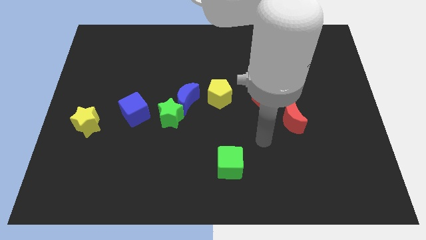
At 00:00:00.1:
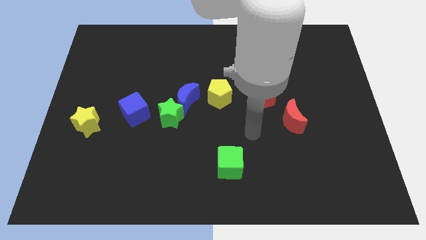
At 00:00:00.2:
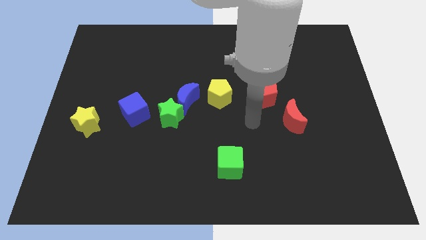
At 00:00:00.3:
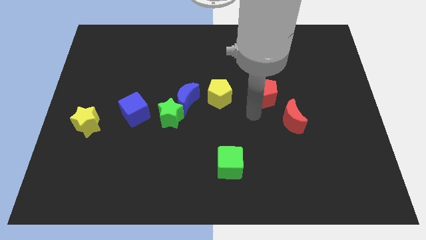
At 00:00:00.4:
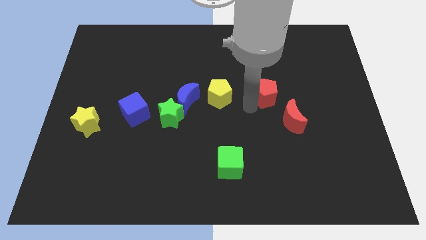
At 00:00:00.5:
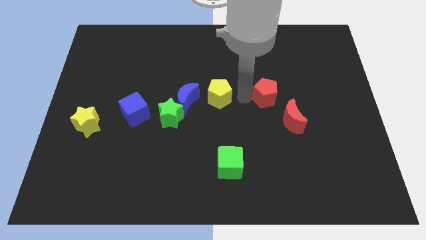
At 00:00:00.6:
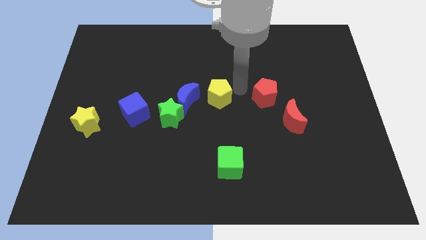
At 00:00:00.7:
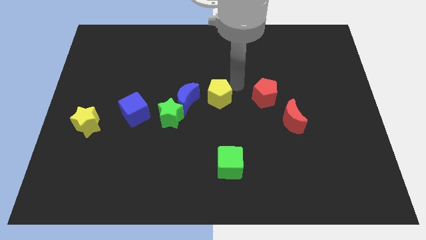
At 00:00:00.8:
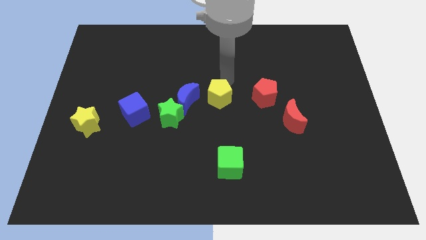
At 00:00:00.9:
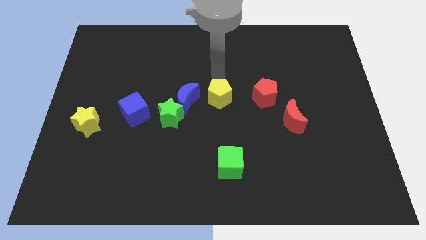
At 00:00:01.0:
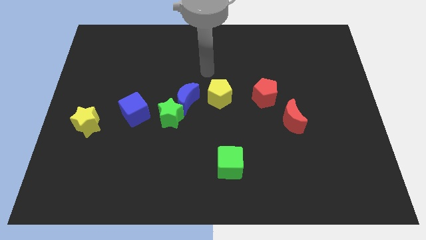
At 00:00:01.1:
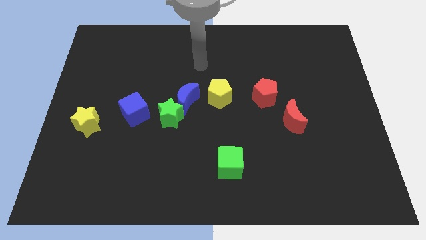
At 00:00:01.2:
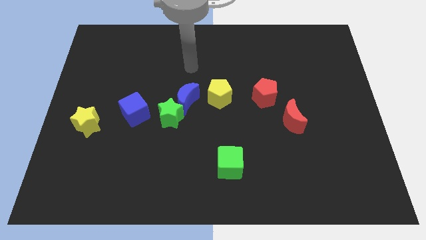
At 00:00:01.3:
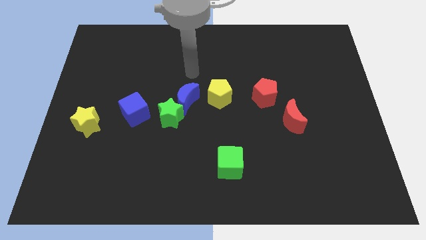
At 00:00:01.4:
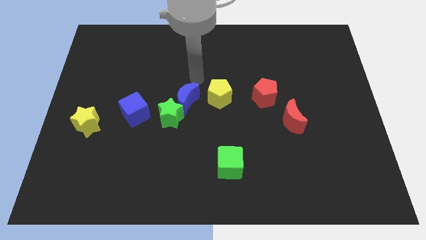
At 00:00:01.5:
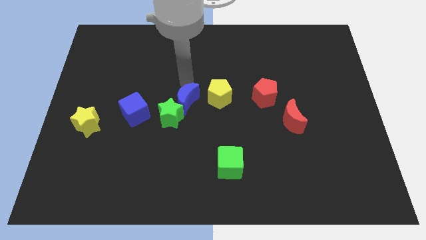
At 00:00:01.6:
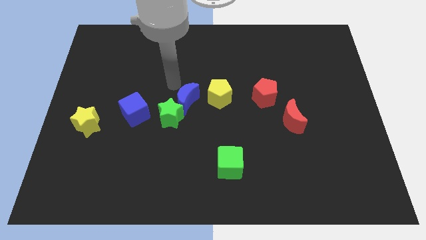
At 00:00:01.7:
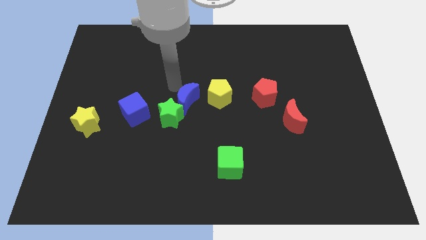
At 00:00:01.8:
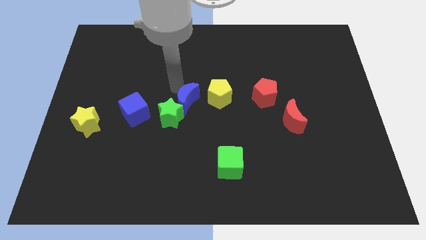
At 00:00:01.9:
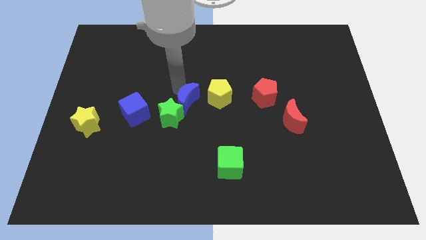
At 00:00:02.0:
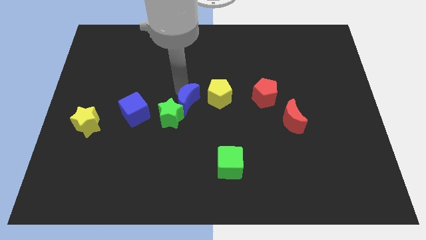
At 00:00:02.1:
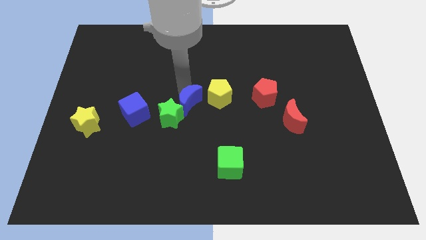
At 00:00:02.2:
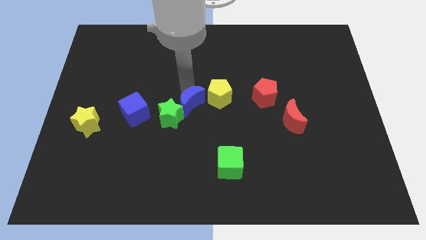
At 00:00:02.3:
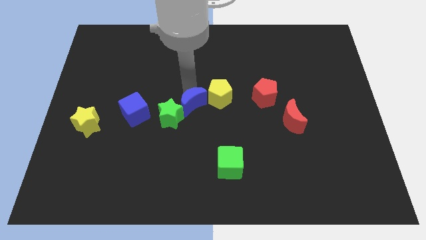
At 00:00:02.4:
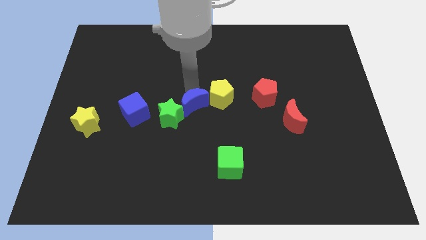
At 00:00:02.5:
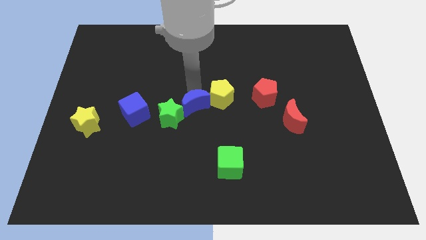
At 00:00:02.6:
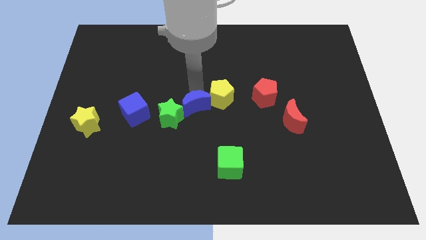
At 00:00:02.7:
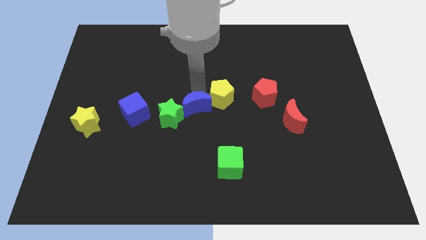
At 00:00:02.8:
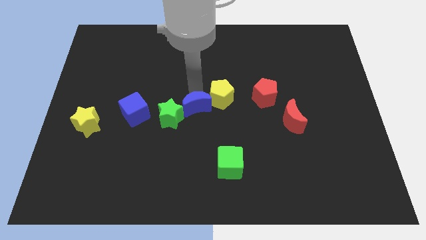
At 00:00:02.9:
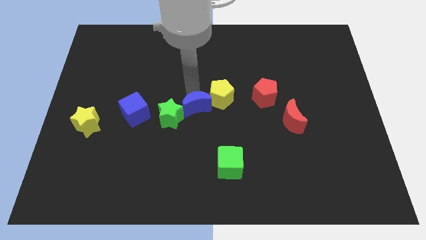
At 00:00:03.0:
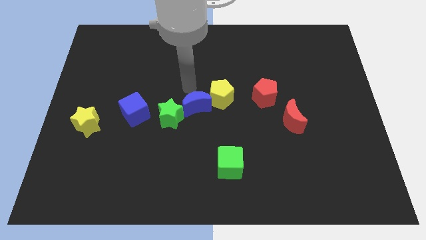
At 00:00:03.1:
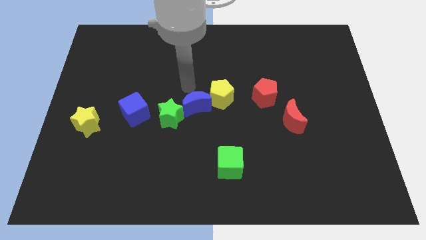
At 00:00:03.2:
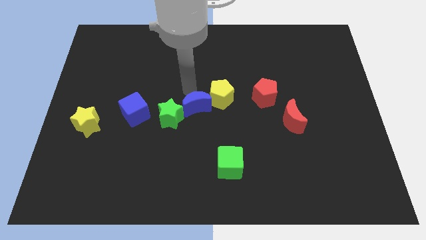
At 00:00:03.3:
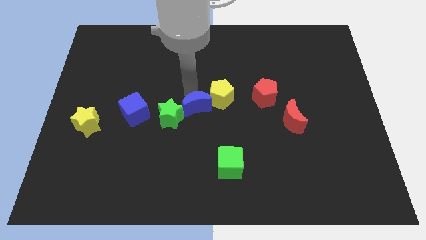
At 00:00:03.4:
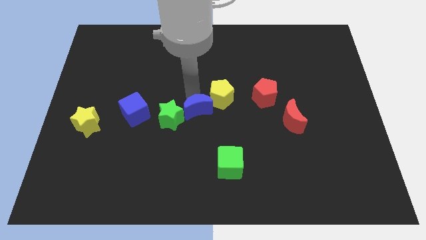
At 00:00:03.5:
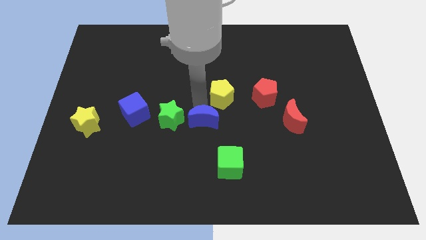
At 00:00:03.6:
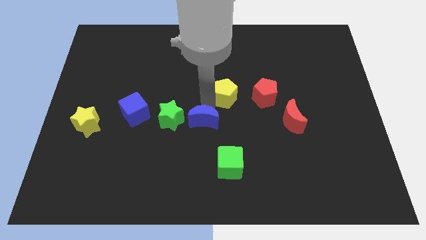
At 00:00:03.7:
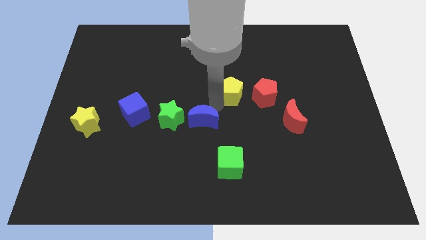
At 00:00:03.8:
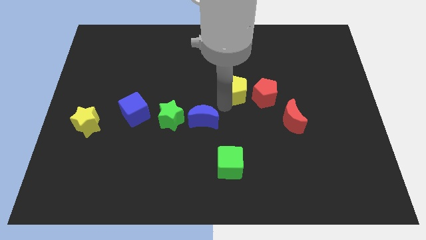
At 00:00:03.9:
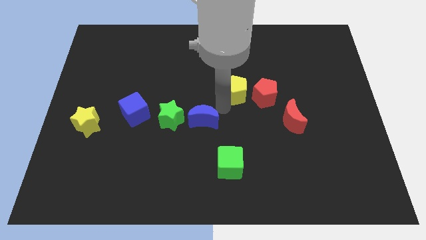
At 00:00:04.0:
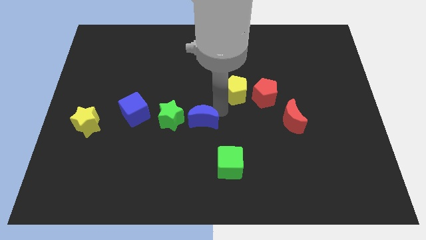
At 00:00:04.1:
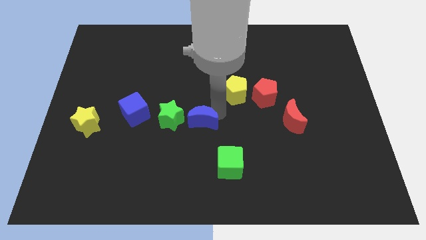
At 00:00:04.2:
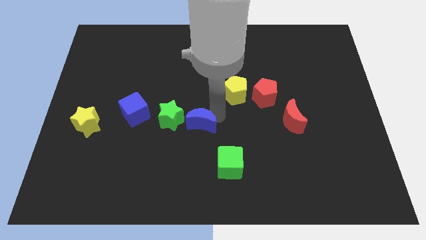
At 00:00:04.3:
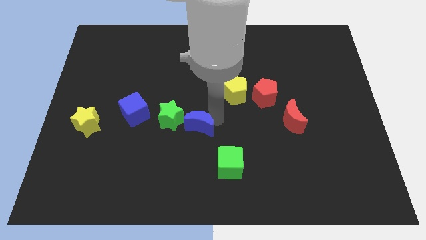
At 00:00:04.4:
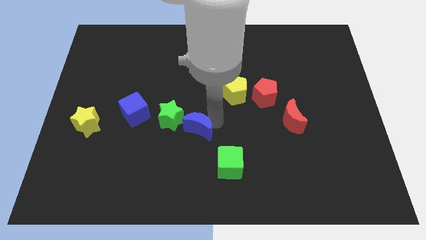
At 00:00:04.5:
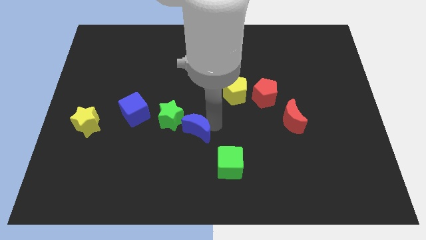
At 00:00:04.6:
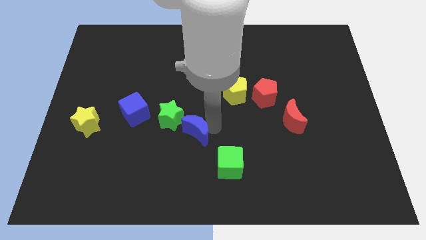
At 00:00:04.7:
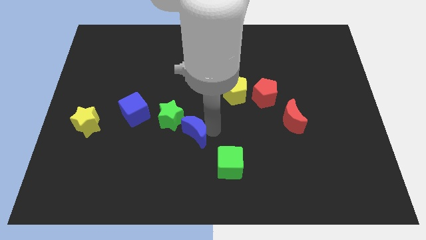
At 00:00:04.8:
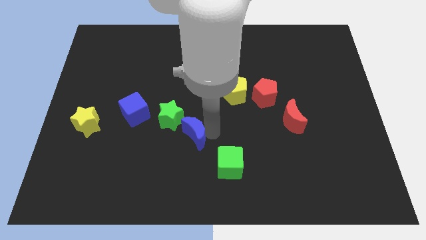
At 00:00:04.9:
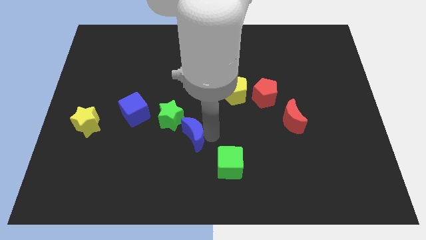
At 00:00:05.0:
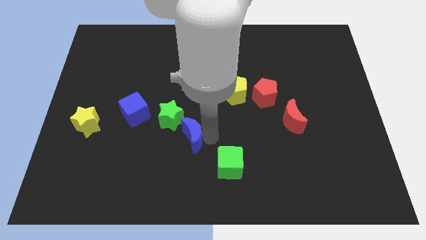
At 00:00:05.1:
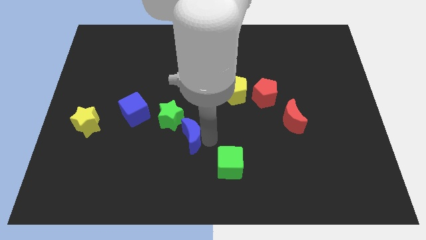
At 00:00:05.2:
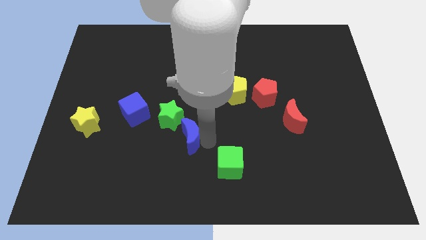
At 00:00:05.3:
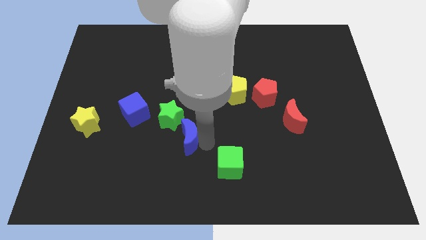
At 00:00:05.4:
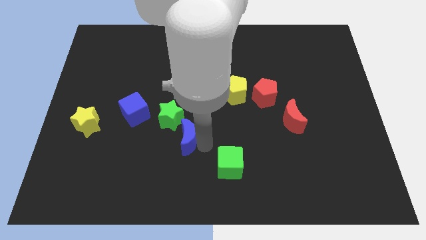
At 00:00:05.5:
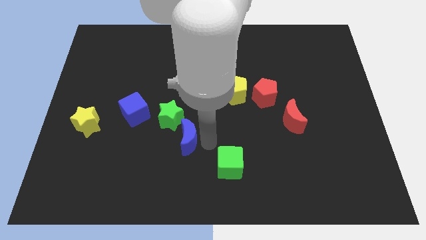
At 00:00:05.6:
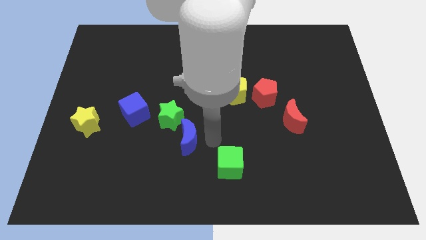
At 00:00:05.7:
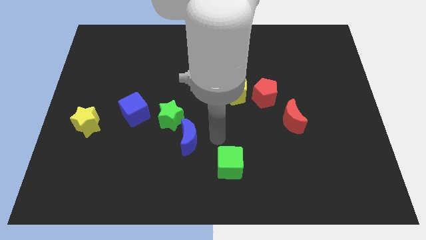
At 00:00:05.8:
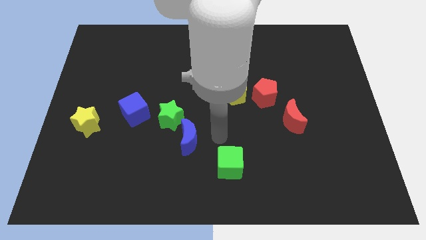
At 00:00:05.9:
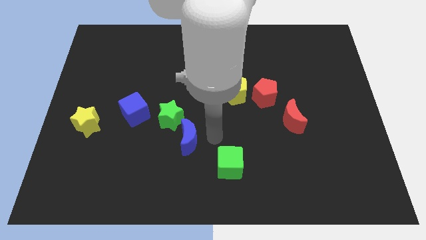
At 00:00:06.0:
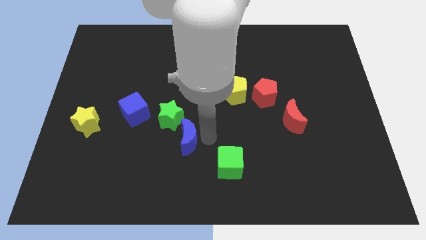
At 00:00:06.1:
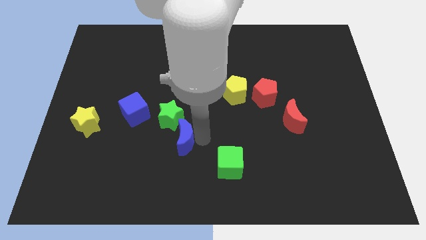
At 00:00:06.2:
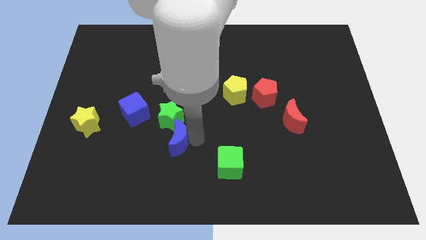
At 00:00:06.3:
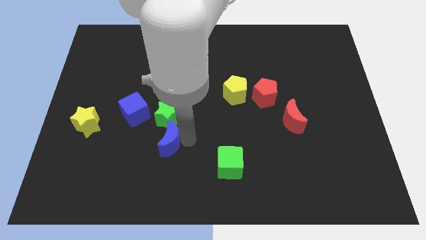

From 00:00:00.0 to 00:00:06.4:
slide the blue moon down and to the left diagonally a little bit

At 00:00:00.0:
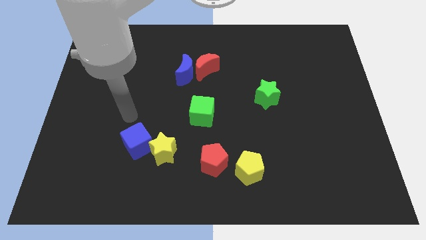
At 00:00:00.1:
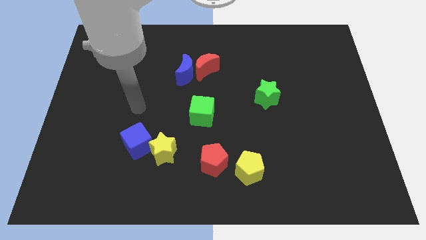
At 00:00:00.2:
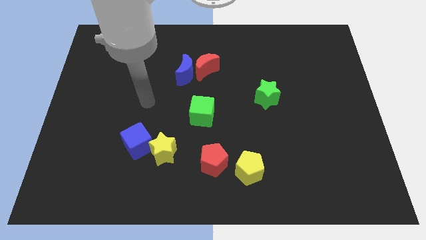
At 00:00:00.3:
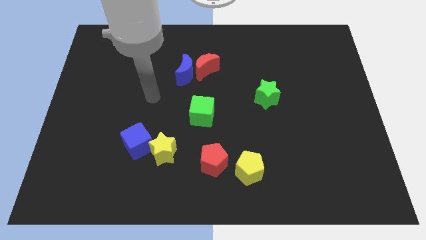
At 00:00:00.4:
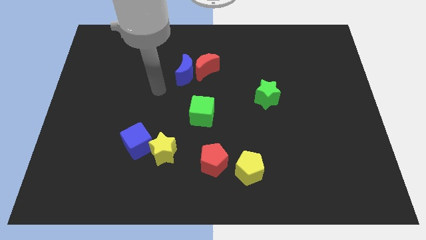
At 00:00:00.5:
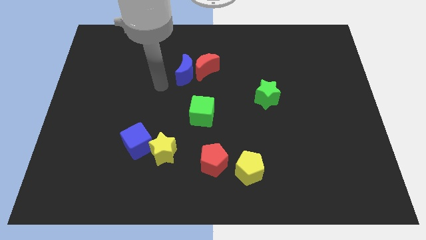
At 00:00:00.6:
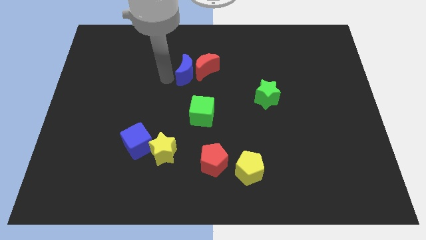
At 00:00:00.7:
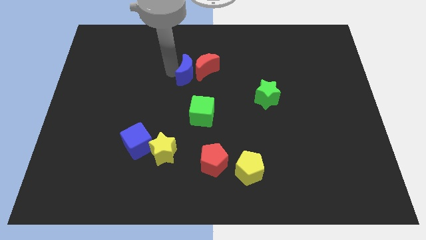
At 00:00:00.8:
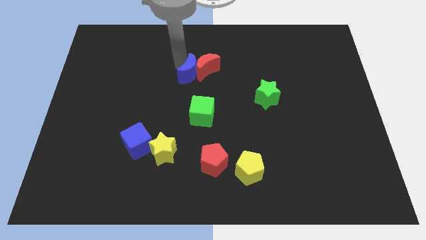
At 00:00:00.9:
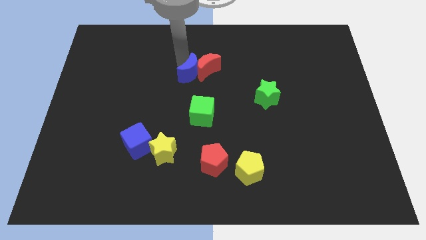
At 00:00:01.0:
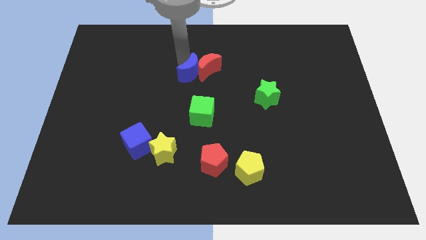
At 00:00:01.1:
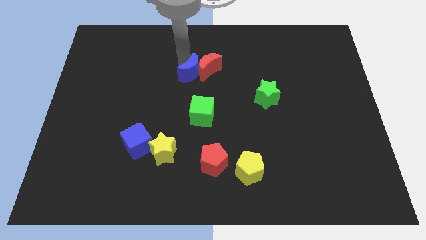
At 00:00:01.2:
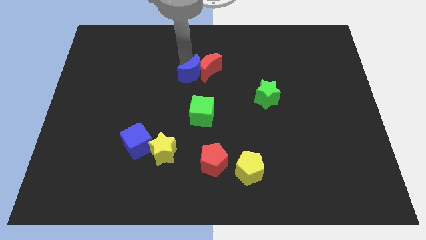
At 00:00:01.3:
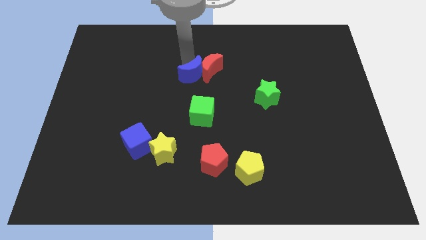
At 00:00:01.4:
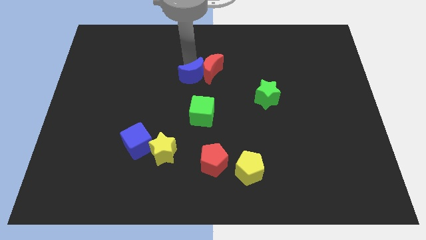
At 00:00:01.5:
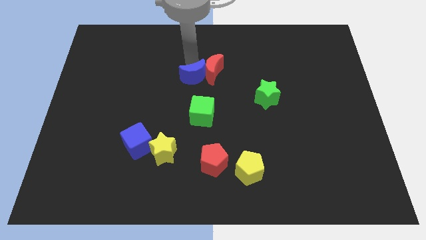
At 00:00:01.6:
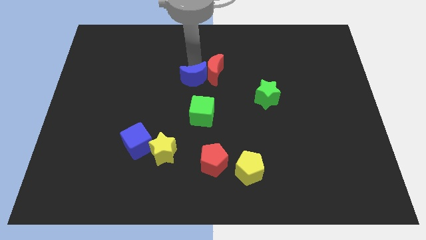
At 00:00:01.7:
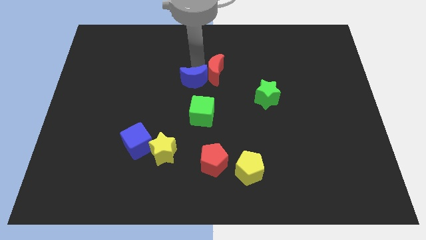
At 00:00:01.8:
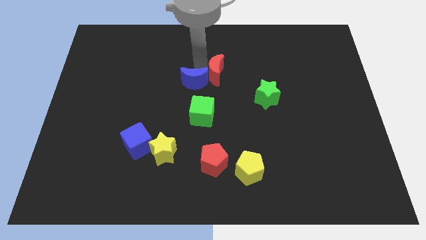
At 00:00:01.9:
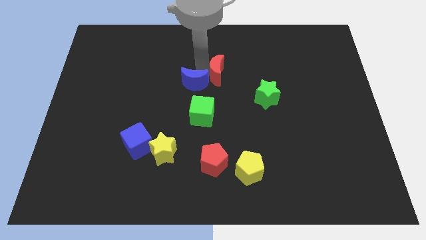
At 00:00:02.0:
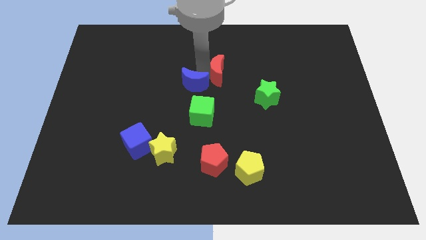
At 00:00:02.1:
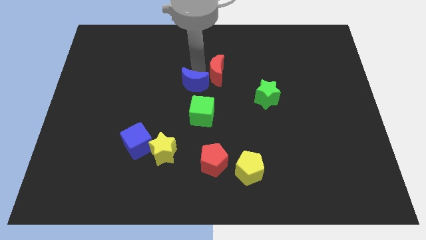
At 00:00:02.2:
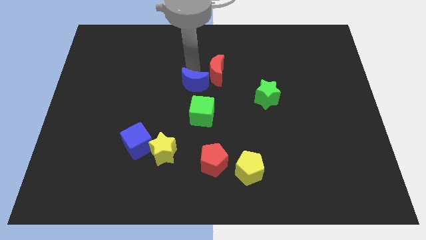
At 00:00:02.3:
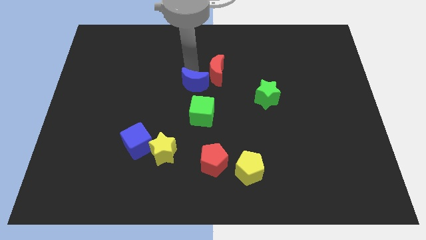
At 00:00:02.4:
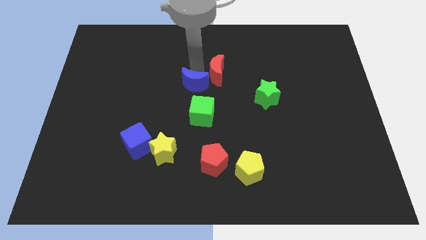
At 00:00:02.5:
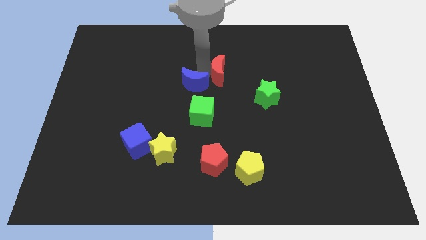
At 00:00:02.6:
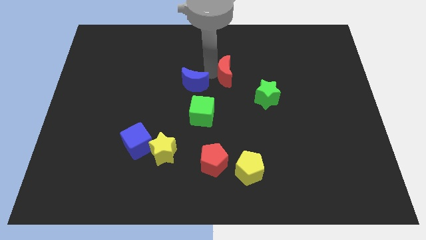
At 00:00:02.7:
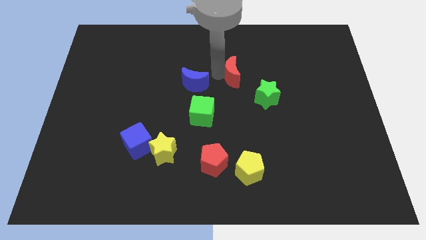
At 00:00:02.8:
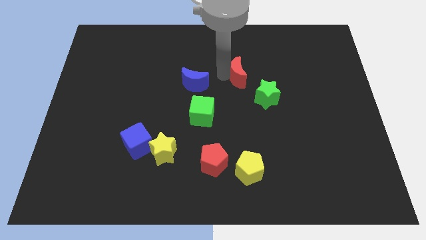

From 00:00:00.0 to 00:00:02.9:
move the red moon a little right
